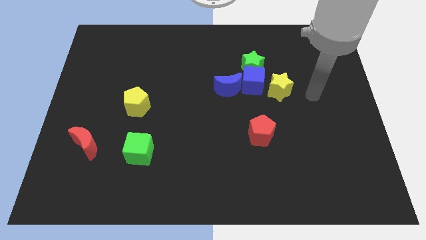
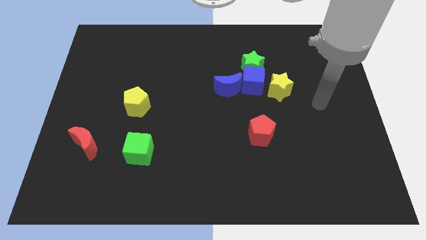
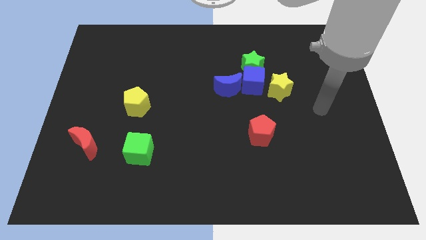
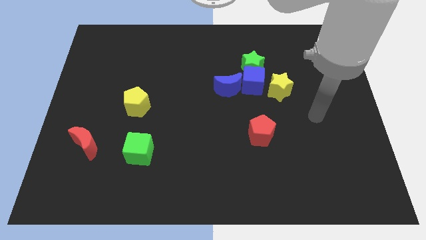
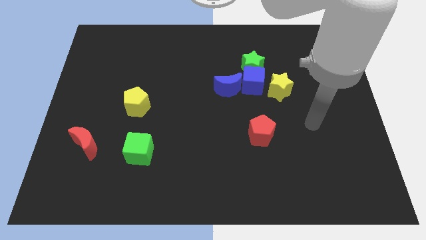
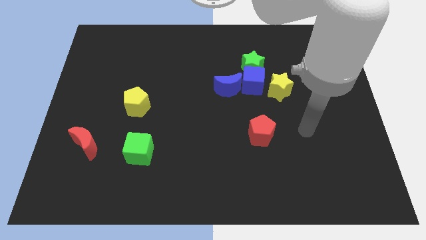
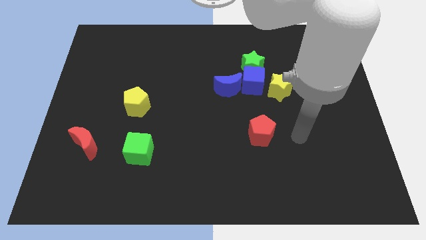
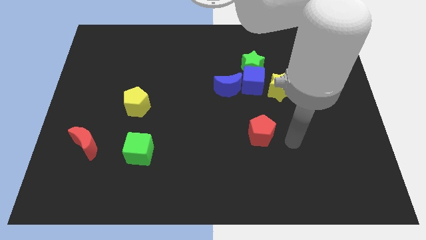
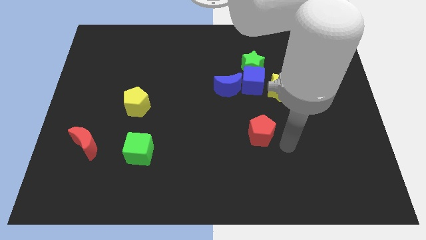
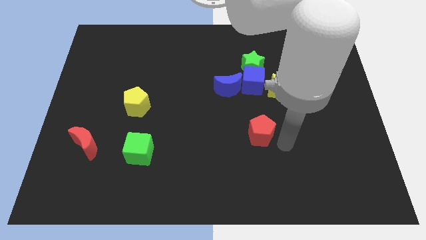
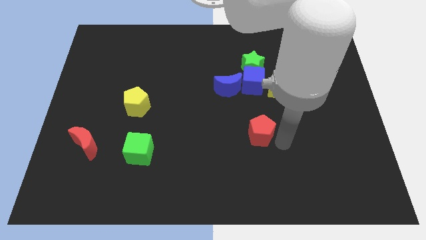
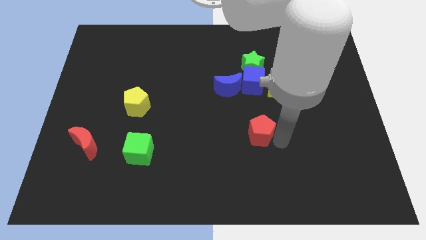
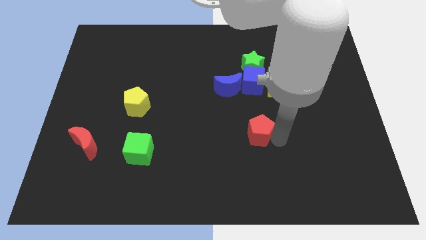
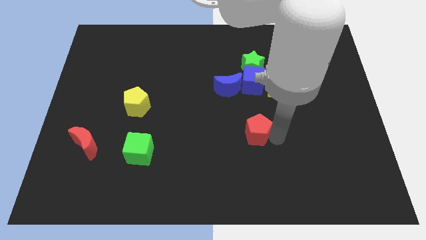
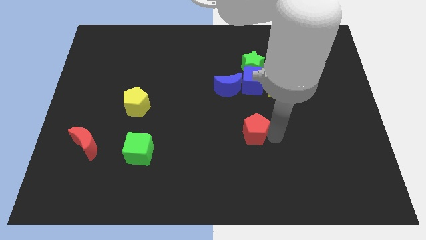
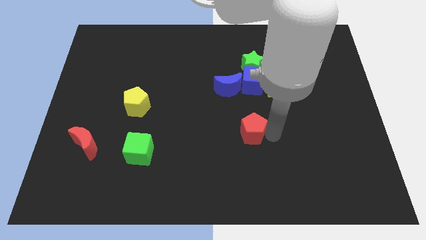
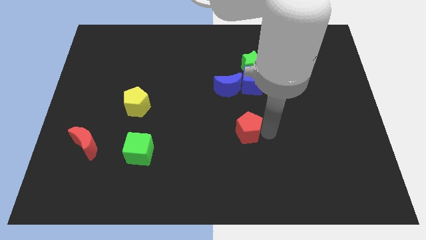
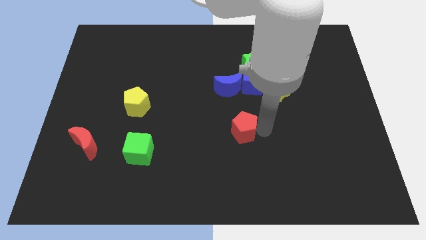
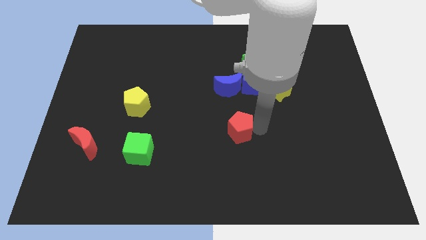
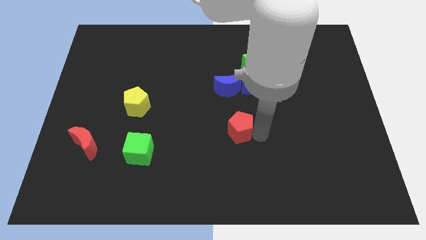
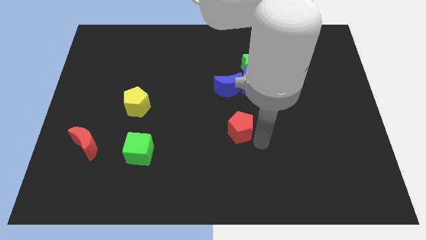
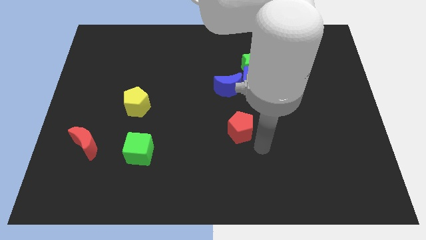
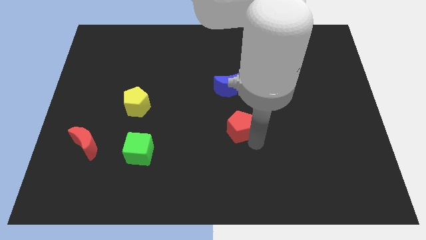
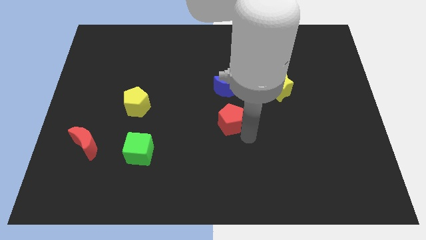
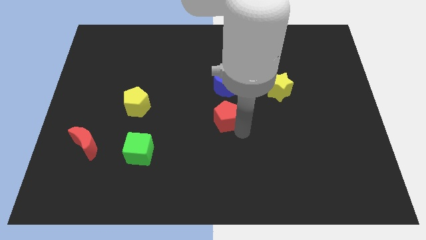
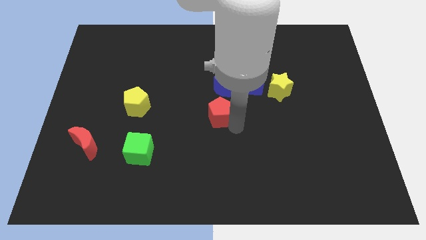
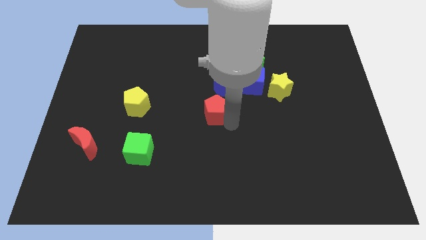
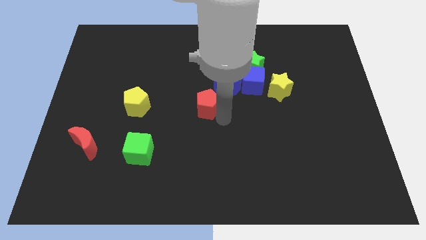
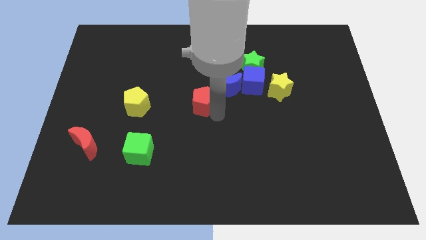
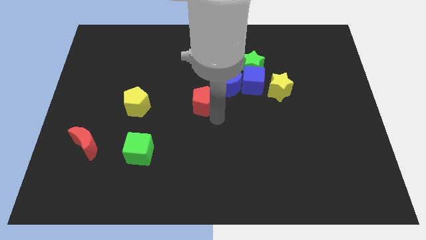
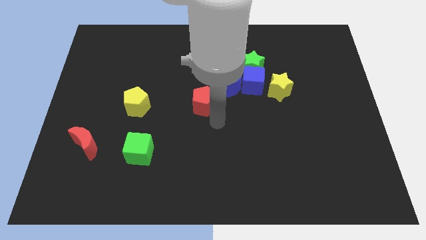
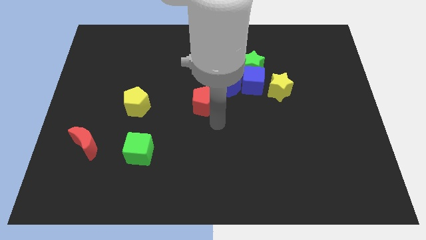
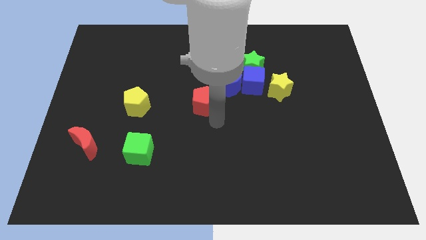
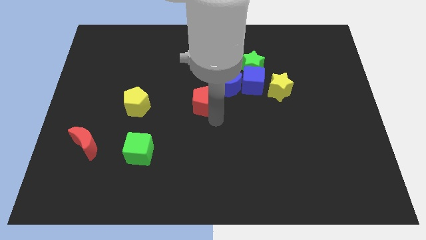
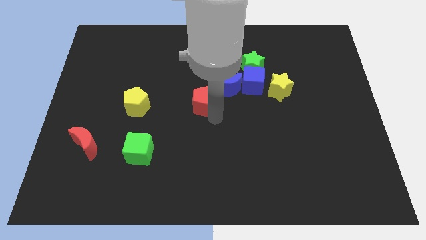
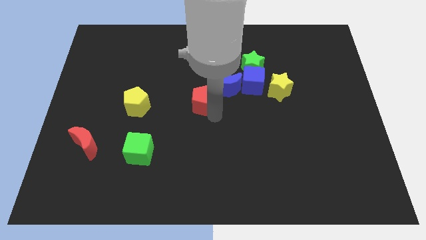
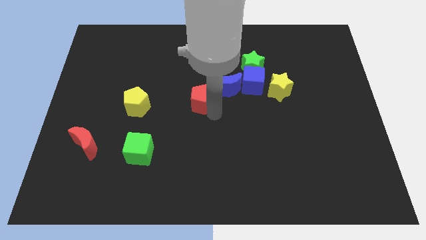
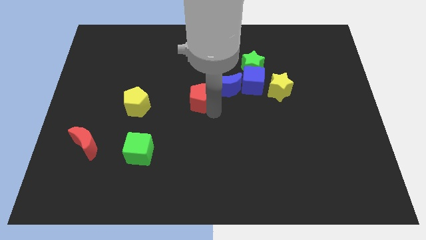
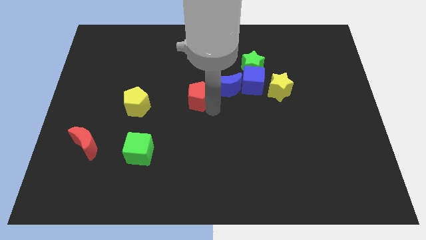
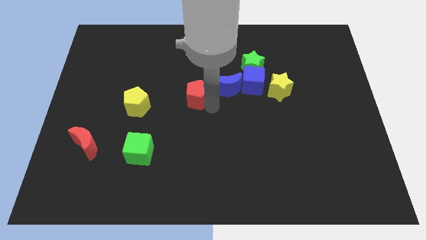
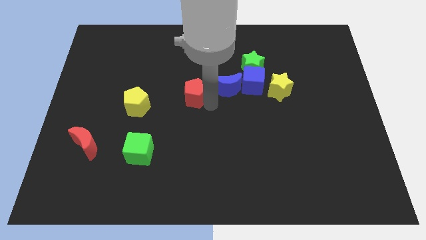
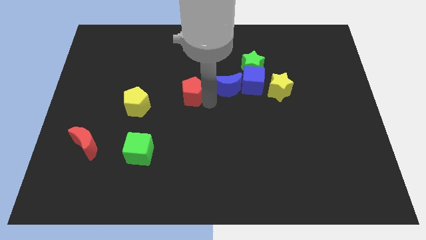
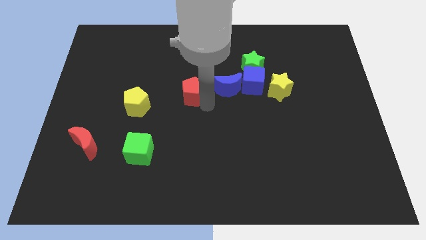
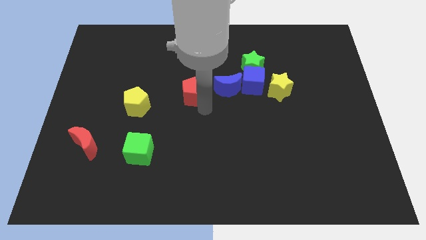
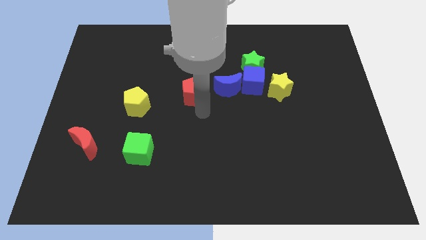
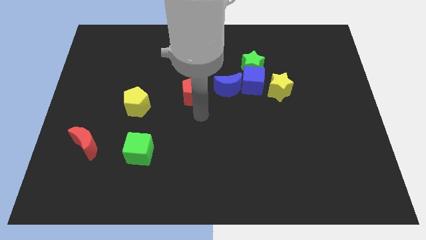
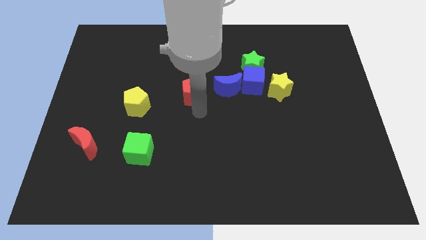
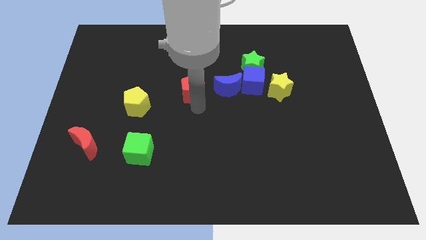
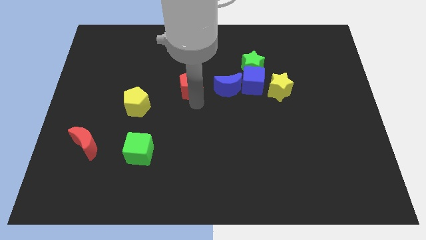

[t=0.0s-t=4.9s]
push the red pentagon upwards and then to the left

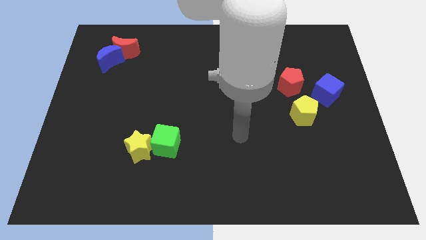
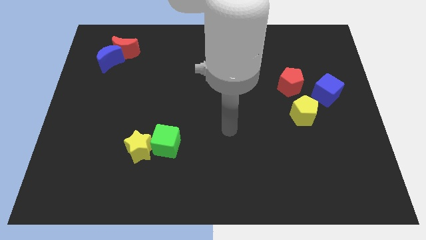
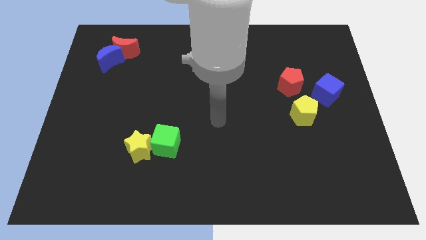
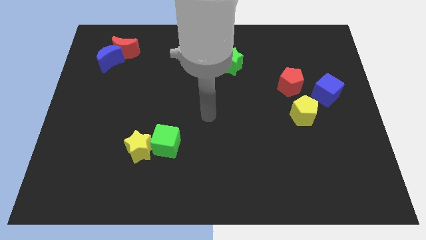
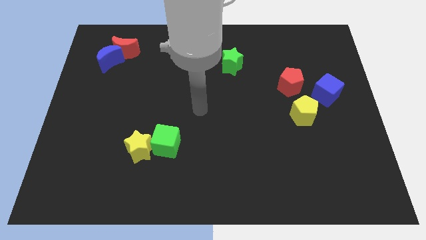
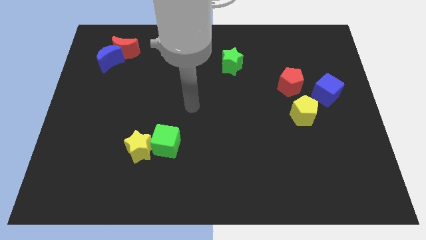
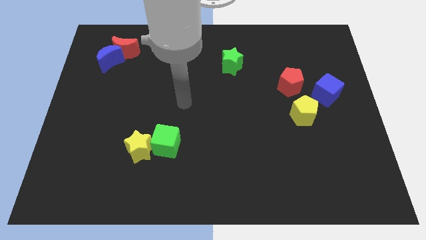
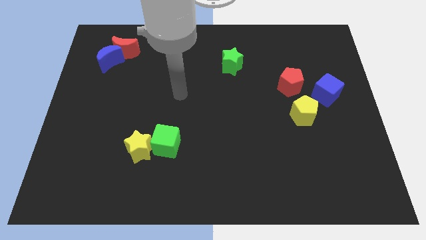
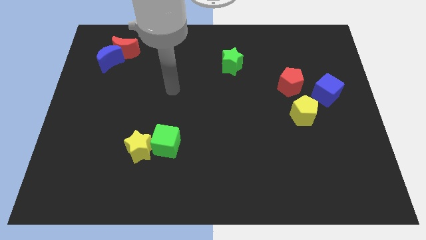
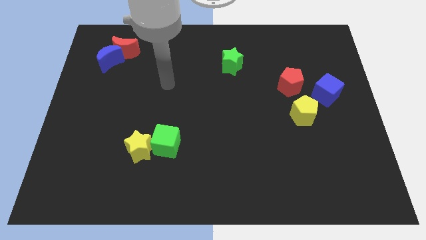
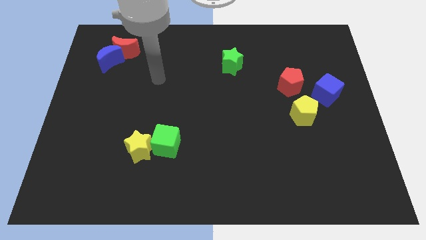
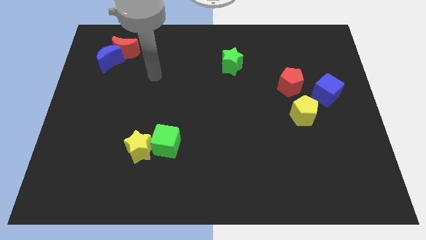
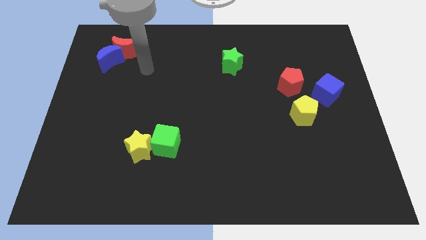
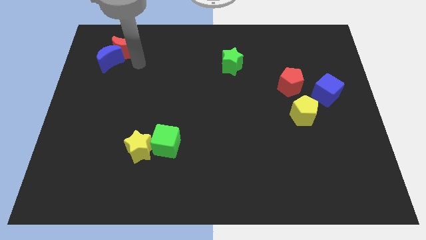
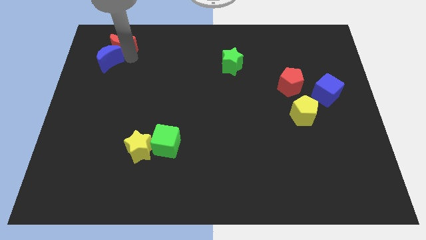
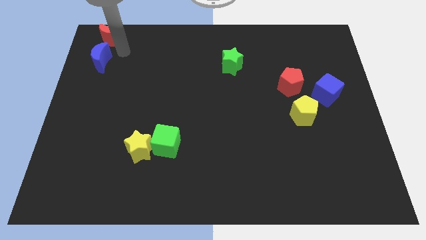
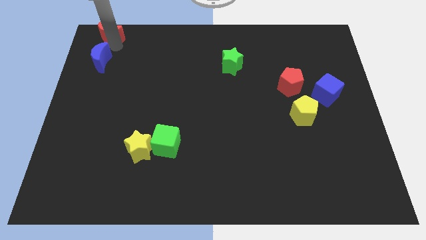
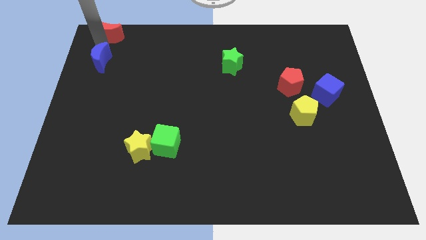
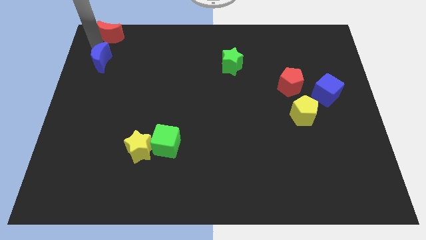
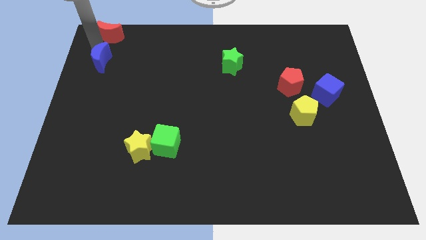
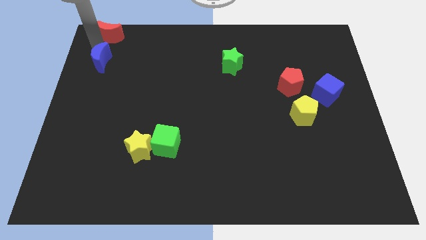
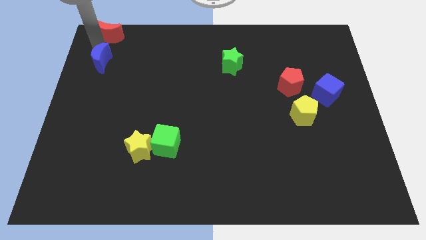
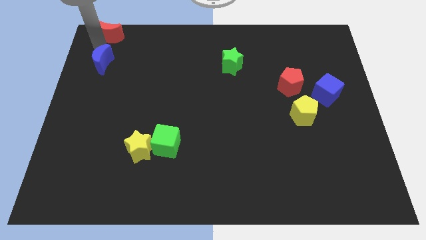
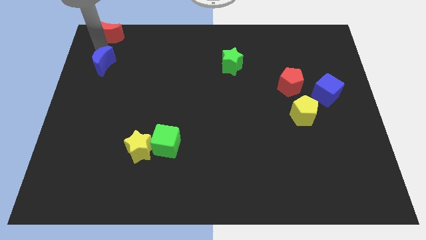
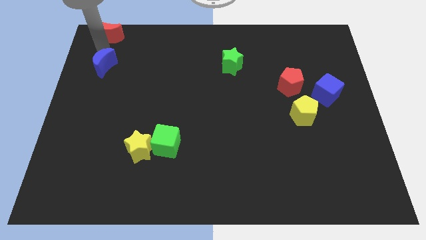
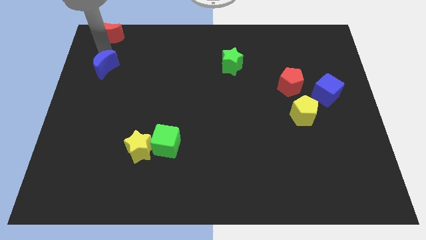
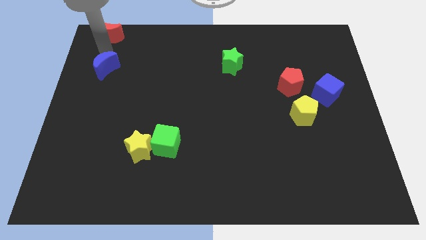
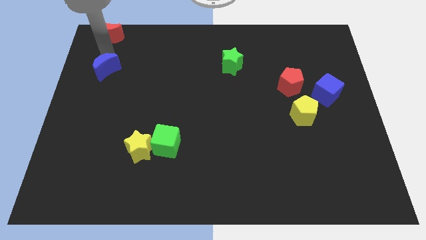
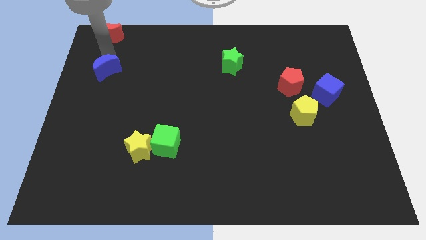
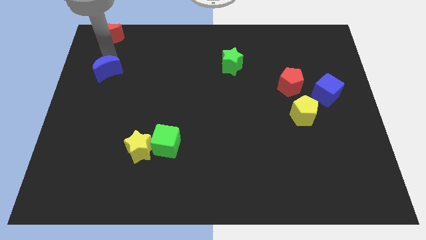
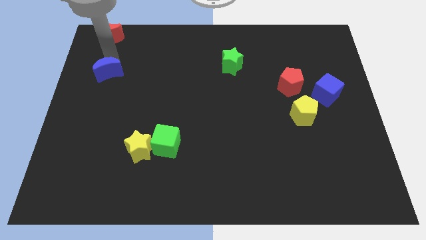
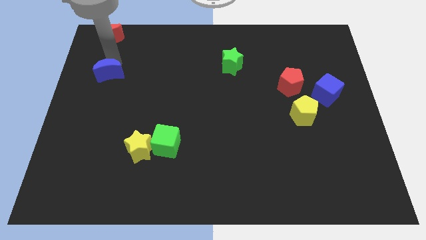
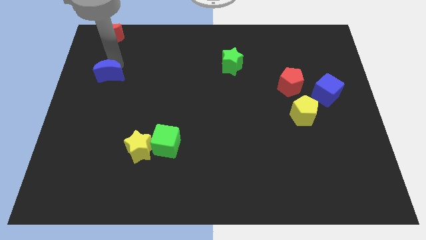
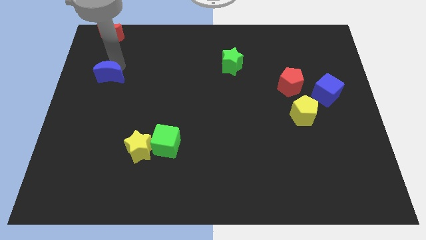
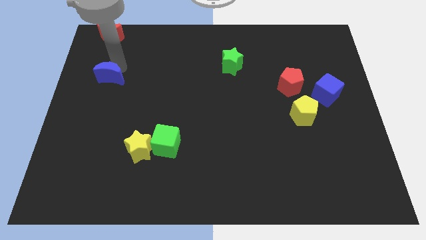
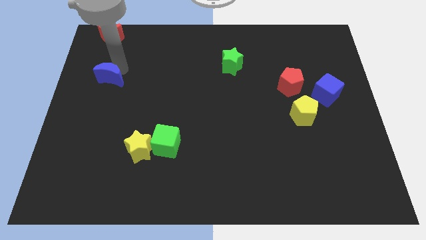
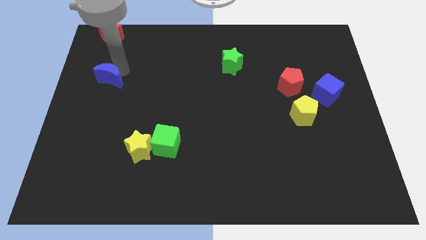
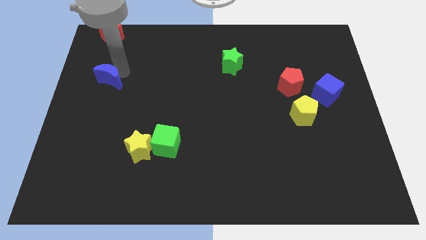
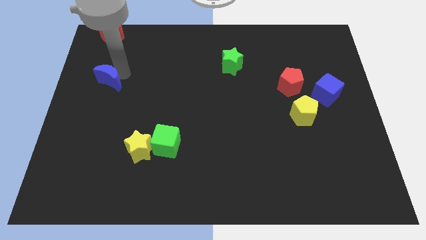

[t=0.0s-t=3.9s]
slightly move the blue moon down

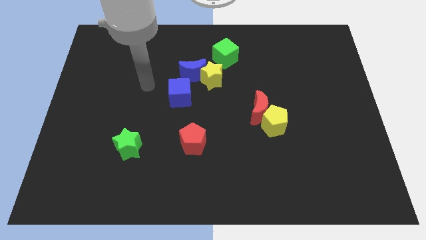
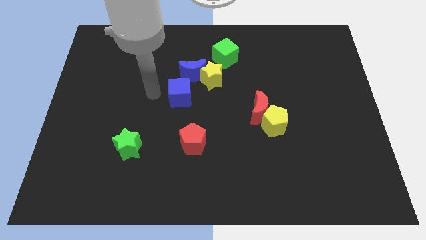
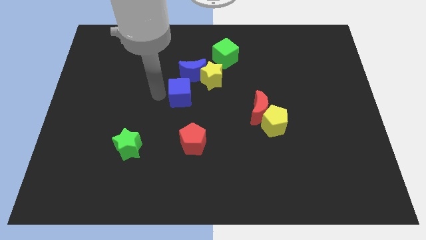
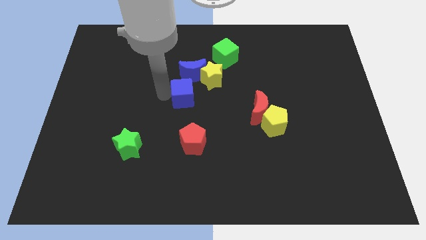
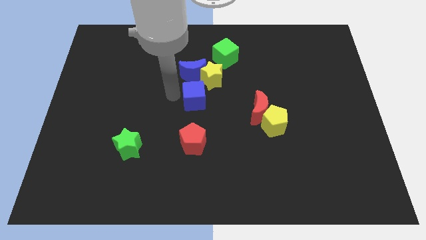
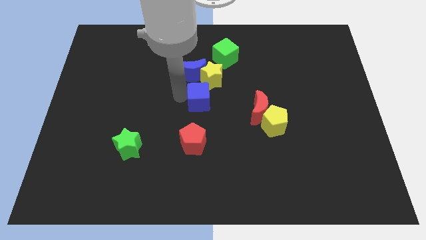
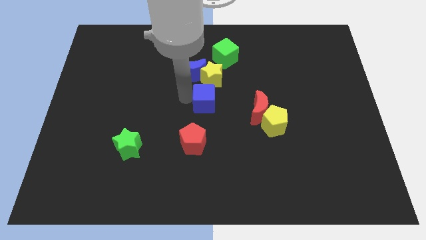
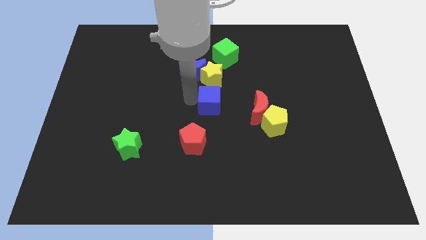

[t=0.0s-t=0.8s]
move the blue cube right slightly
